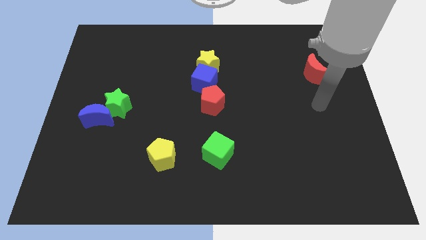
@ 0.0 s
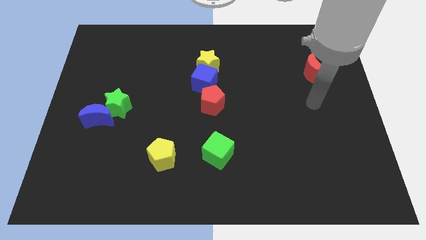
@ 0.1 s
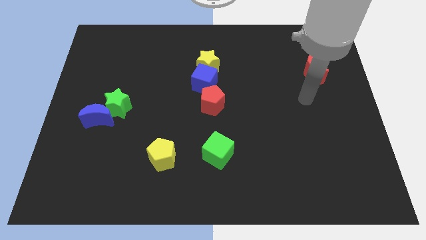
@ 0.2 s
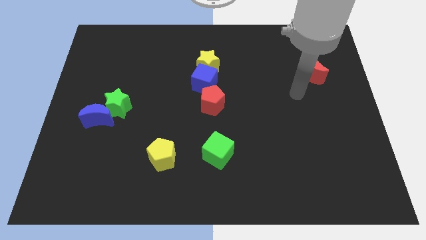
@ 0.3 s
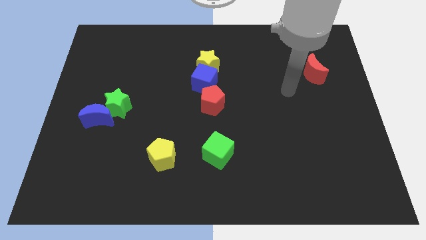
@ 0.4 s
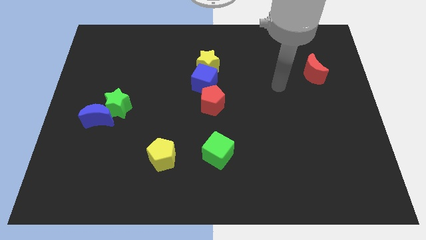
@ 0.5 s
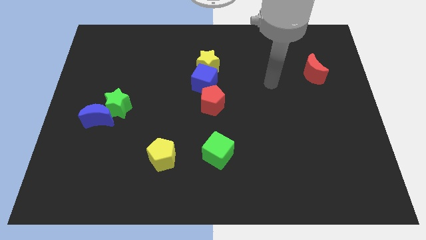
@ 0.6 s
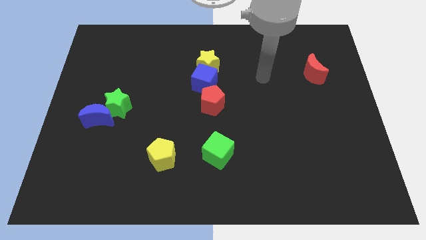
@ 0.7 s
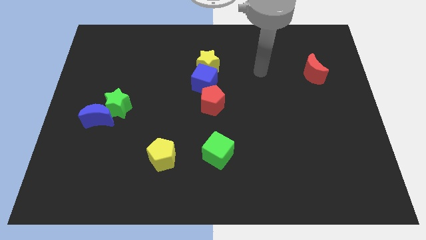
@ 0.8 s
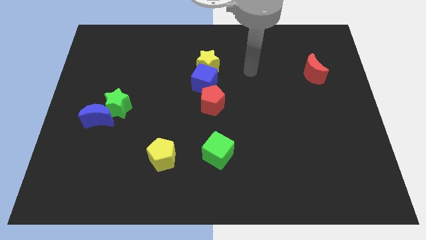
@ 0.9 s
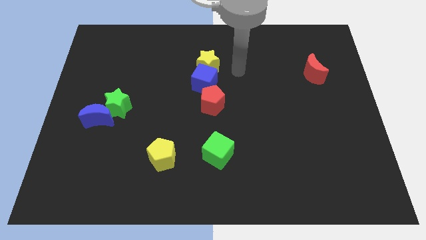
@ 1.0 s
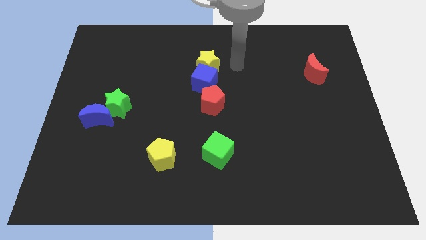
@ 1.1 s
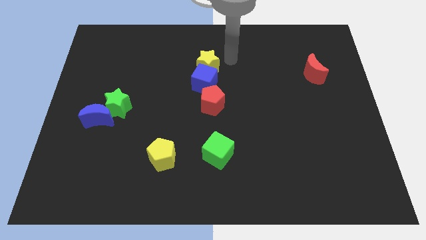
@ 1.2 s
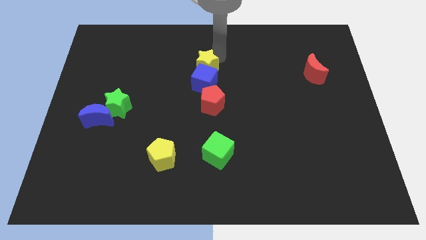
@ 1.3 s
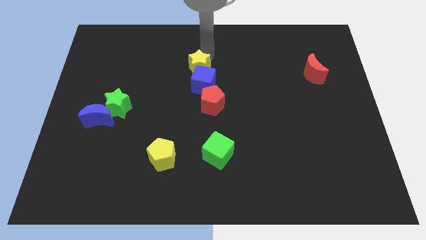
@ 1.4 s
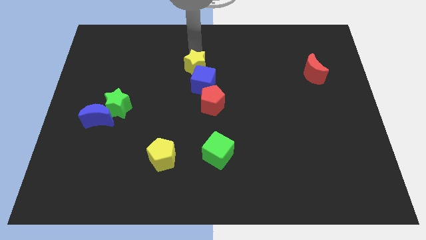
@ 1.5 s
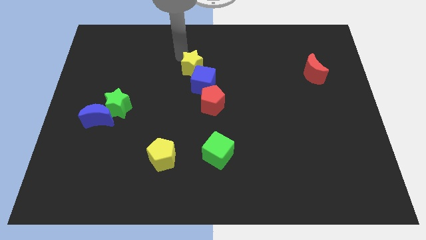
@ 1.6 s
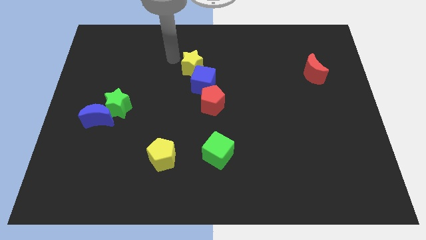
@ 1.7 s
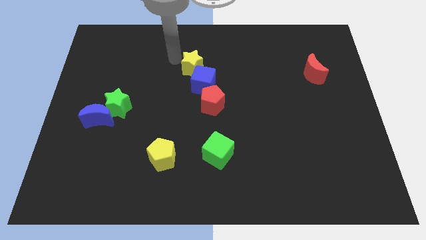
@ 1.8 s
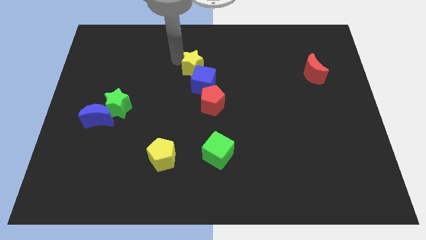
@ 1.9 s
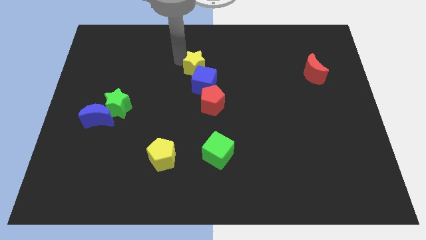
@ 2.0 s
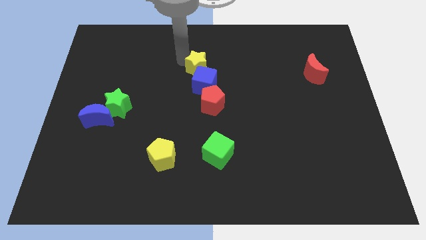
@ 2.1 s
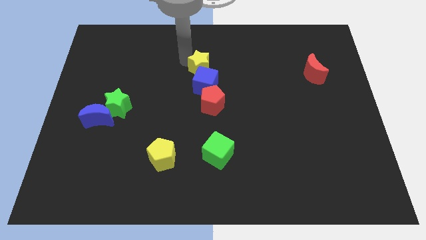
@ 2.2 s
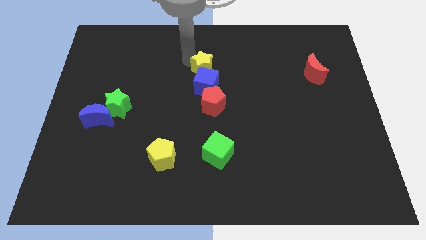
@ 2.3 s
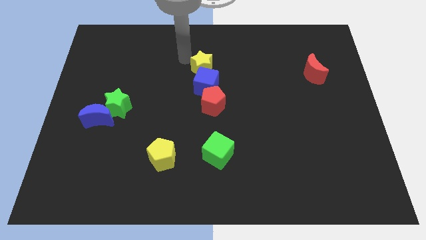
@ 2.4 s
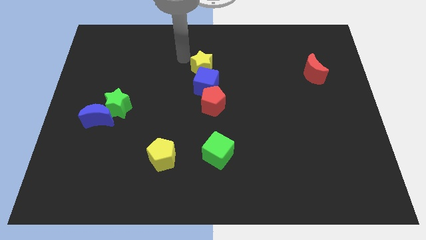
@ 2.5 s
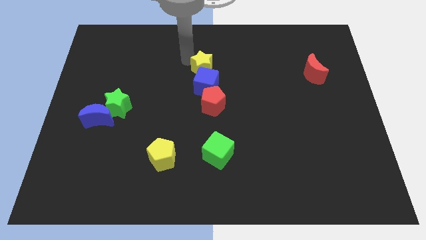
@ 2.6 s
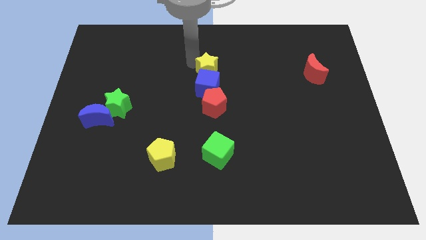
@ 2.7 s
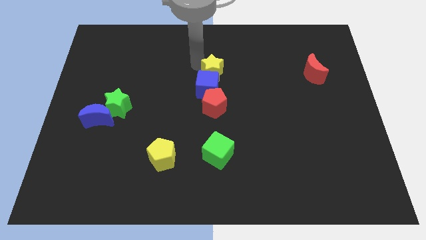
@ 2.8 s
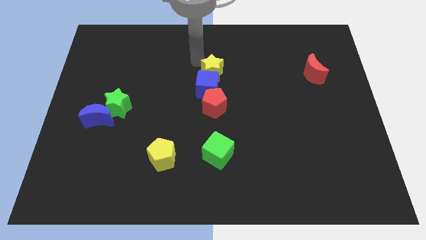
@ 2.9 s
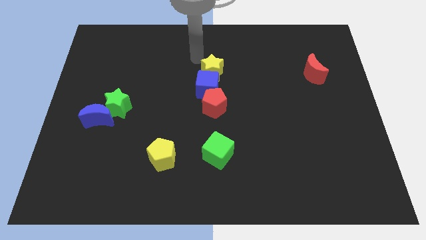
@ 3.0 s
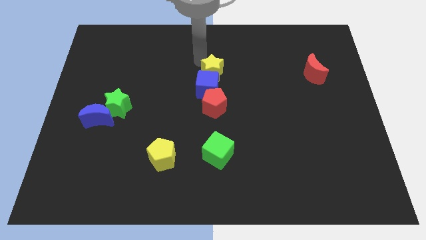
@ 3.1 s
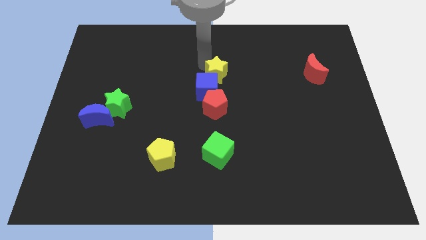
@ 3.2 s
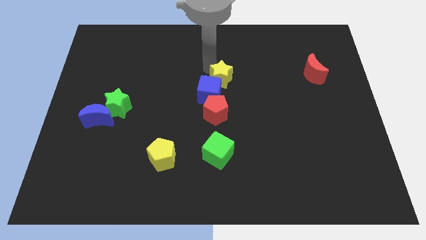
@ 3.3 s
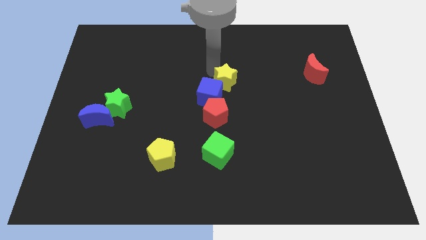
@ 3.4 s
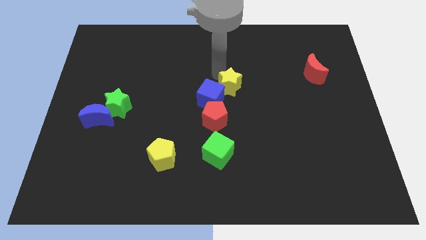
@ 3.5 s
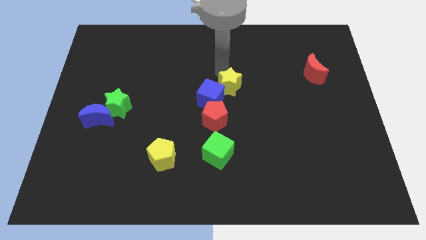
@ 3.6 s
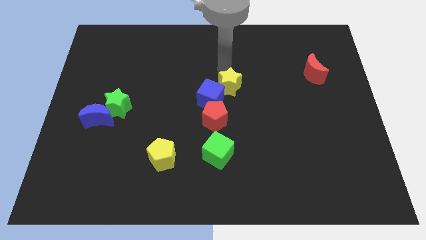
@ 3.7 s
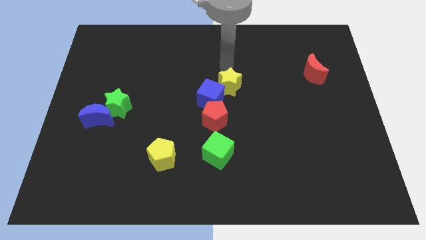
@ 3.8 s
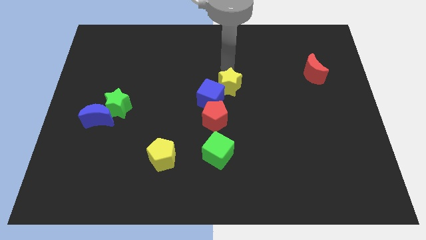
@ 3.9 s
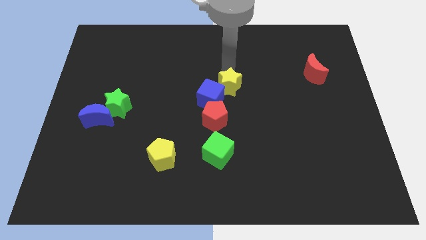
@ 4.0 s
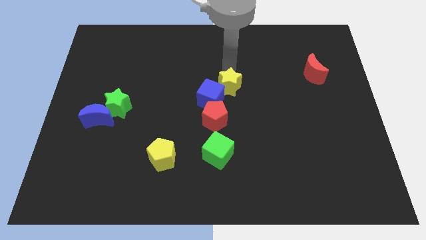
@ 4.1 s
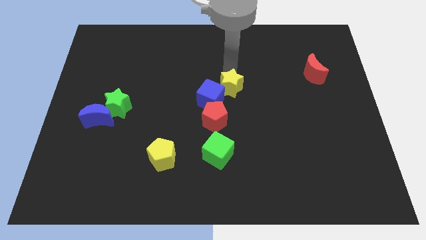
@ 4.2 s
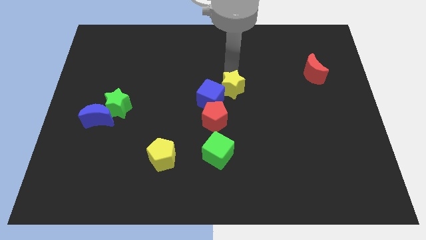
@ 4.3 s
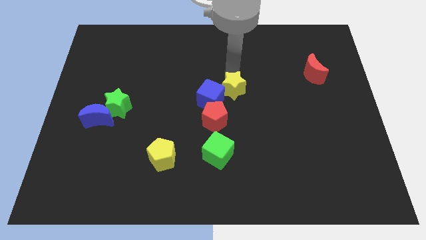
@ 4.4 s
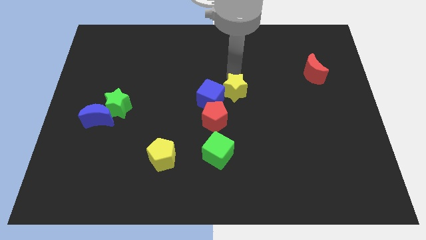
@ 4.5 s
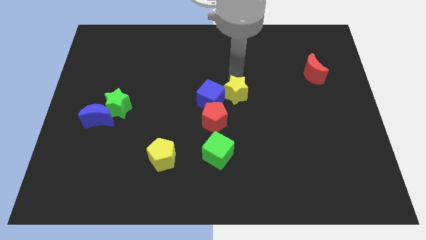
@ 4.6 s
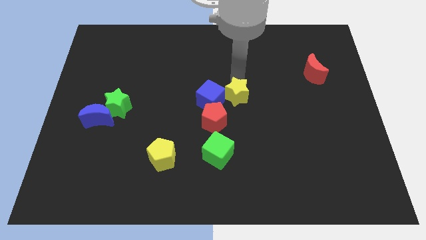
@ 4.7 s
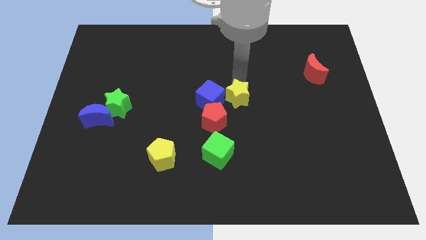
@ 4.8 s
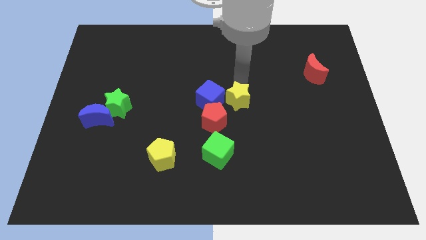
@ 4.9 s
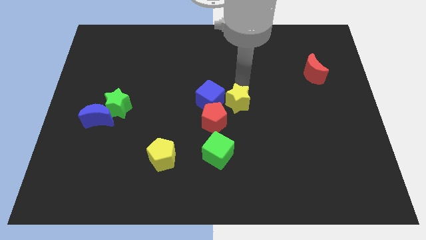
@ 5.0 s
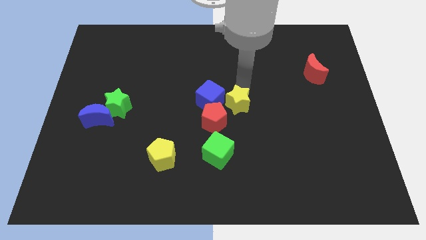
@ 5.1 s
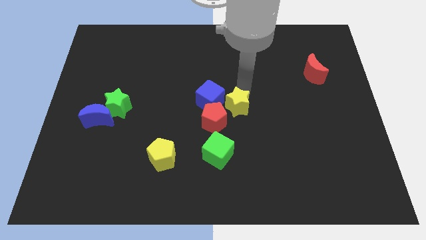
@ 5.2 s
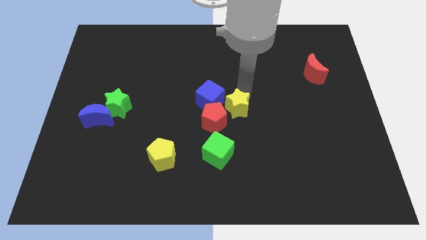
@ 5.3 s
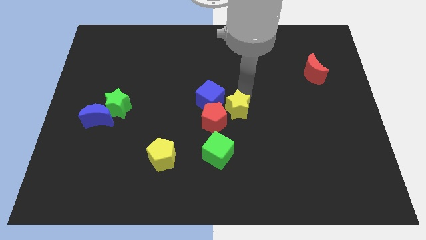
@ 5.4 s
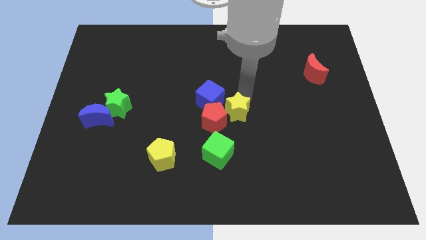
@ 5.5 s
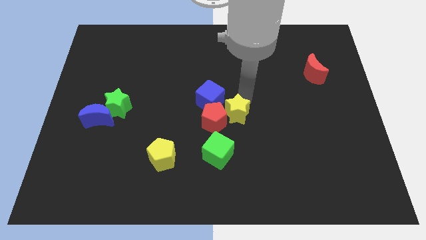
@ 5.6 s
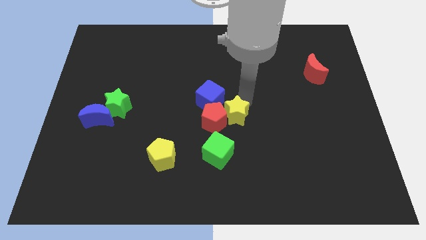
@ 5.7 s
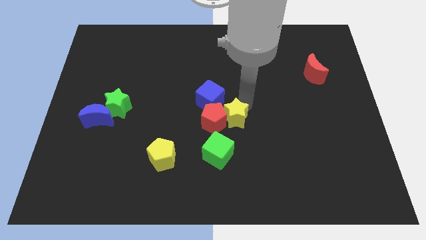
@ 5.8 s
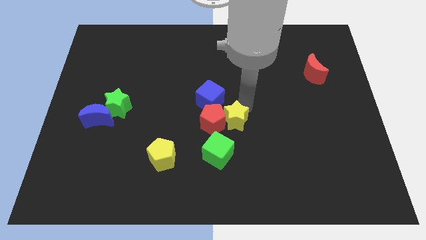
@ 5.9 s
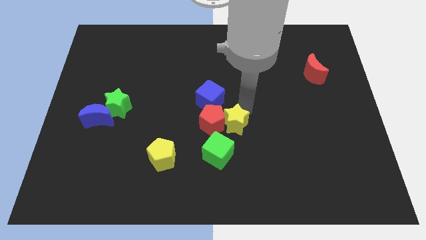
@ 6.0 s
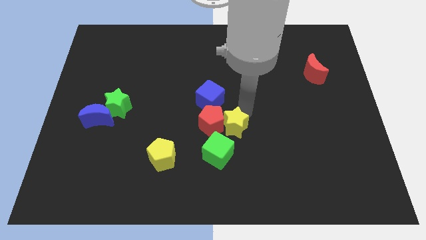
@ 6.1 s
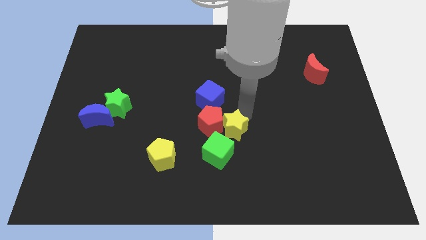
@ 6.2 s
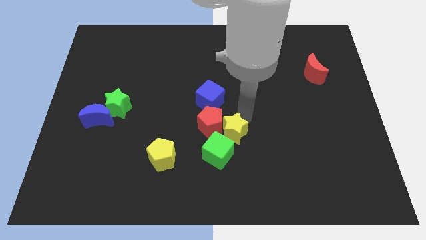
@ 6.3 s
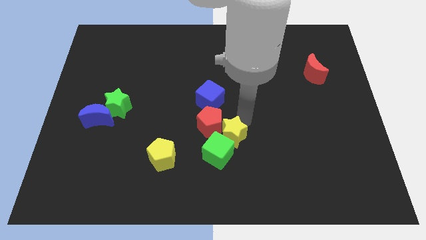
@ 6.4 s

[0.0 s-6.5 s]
put the yellow star below the blue cube
